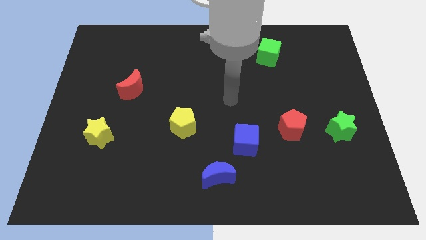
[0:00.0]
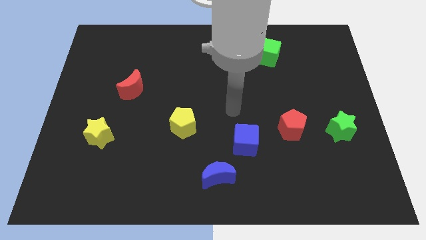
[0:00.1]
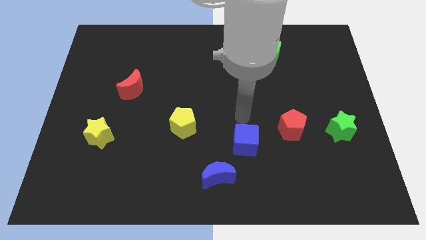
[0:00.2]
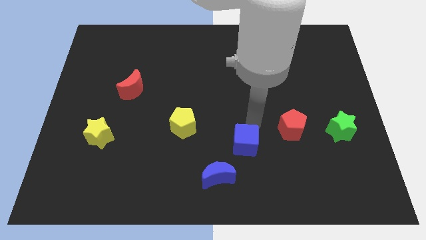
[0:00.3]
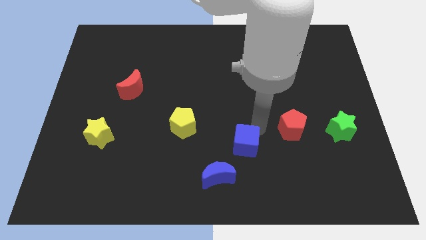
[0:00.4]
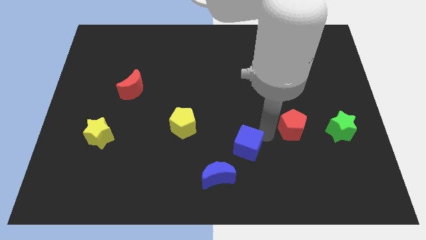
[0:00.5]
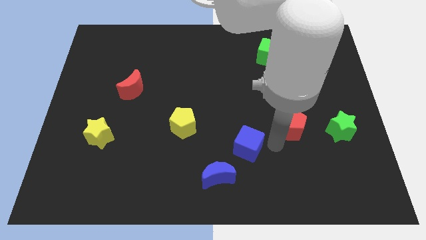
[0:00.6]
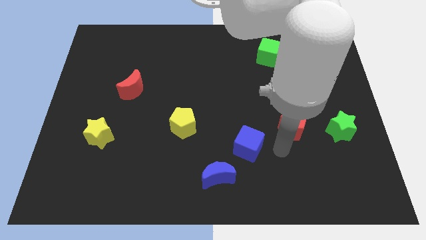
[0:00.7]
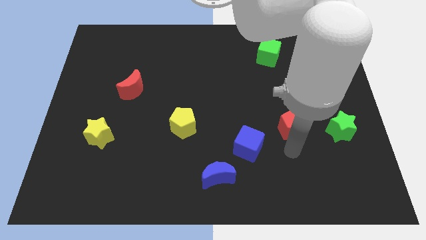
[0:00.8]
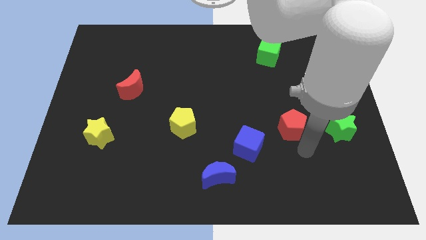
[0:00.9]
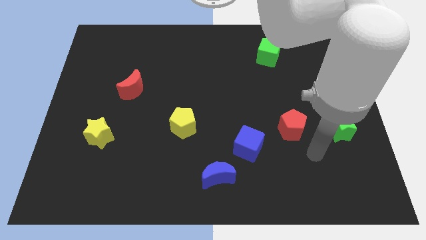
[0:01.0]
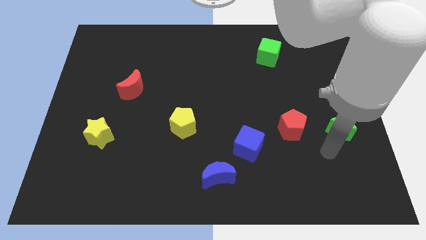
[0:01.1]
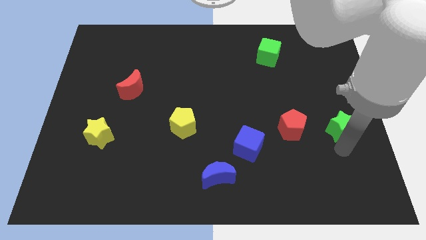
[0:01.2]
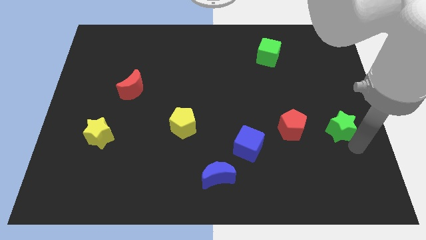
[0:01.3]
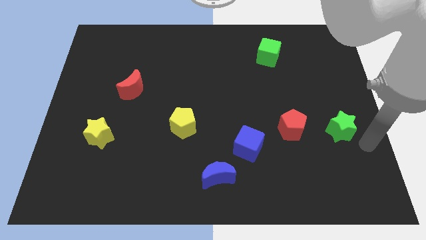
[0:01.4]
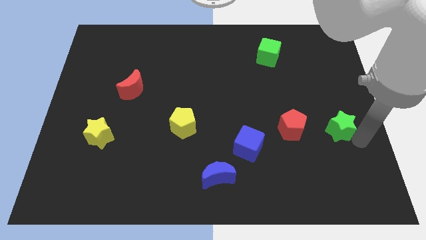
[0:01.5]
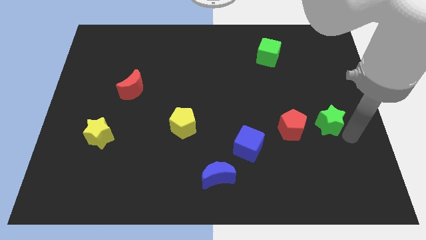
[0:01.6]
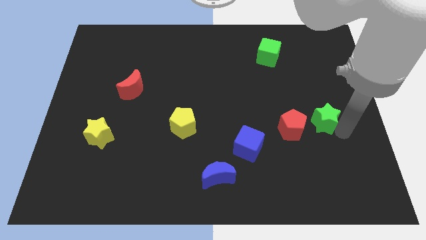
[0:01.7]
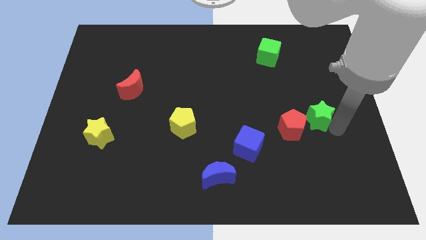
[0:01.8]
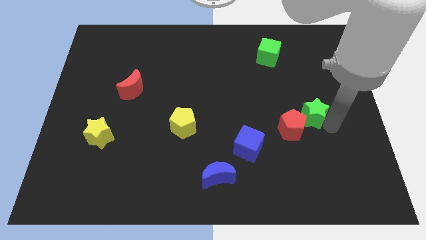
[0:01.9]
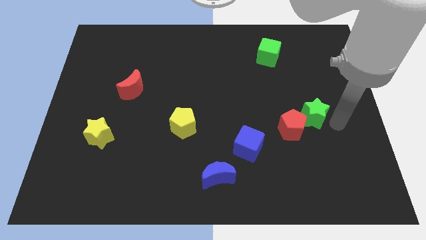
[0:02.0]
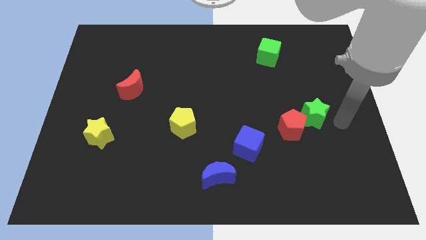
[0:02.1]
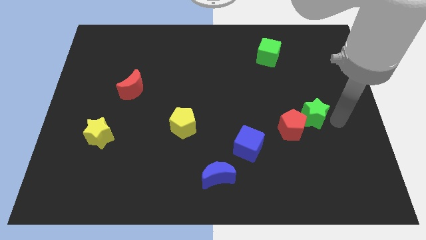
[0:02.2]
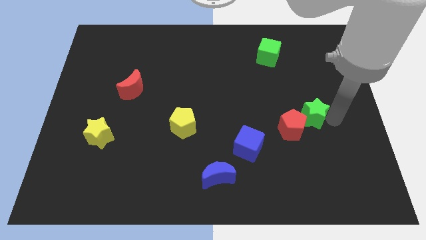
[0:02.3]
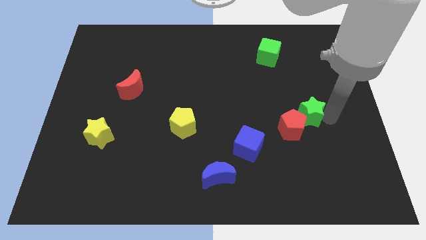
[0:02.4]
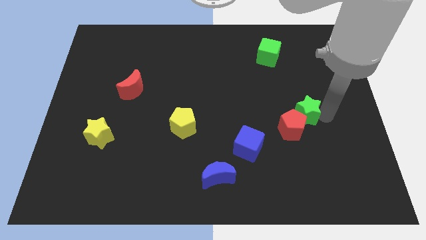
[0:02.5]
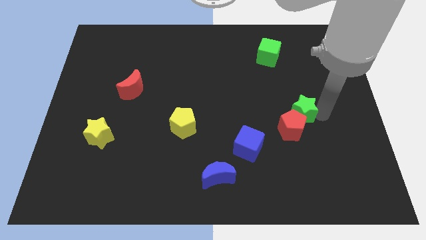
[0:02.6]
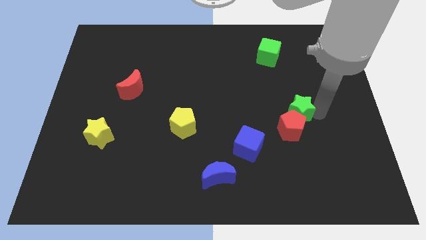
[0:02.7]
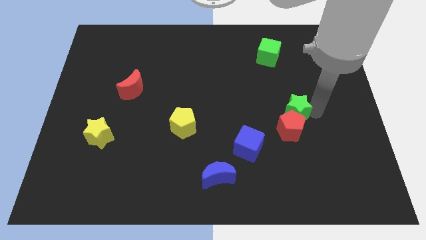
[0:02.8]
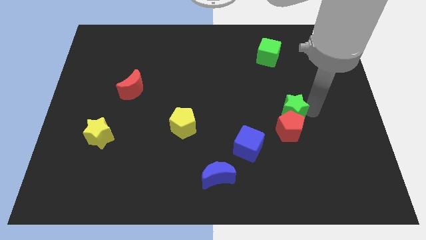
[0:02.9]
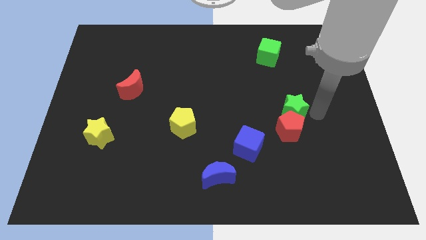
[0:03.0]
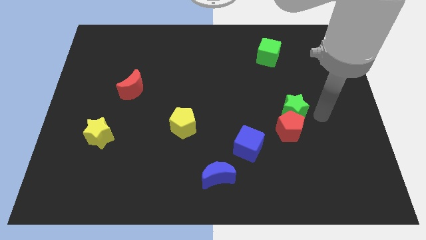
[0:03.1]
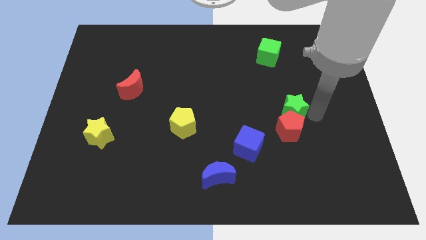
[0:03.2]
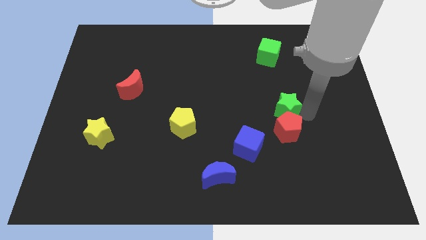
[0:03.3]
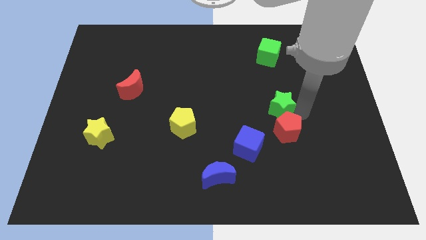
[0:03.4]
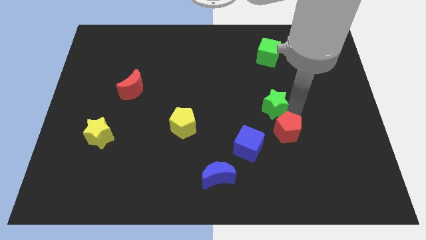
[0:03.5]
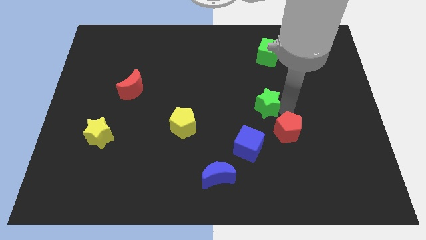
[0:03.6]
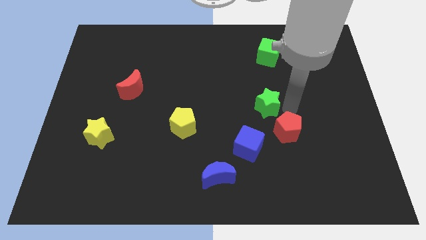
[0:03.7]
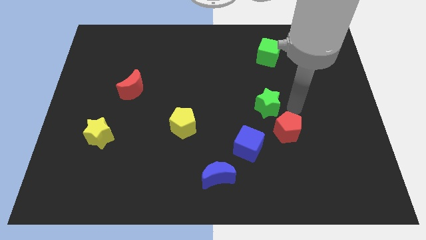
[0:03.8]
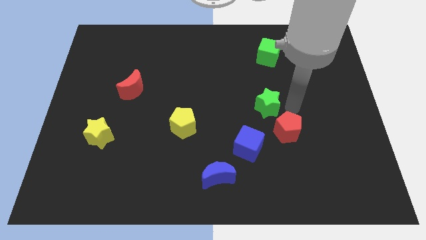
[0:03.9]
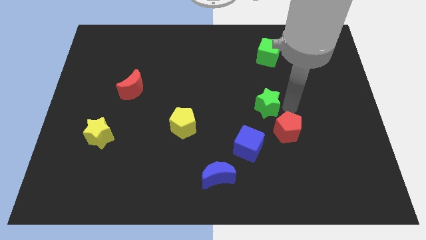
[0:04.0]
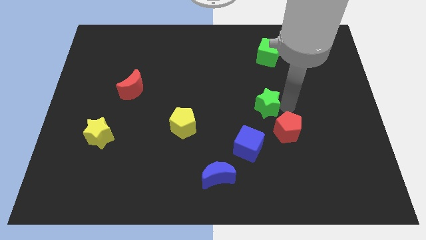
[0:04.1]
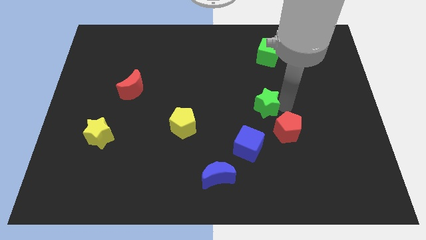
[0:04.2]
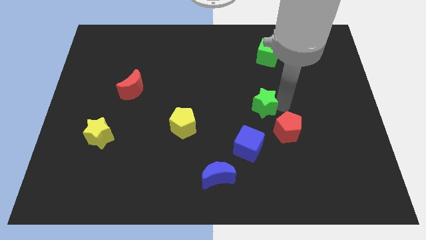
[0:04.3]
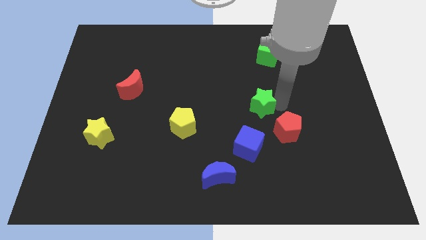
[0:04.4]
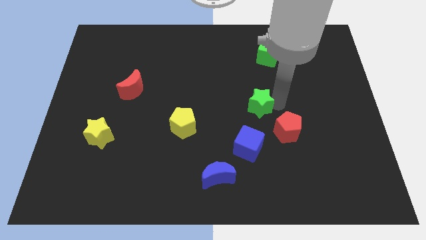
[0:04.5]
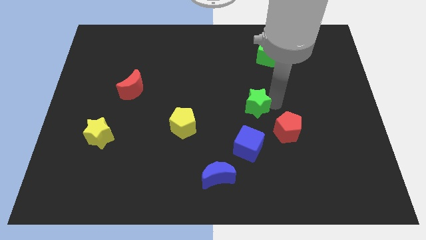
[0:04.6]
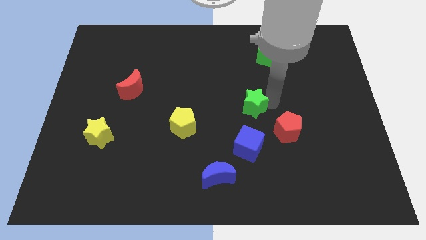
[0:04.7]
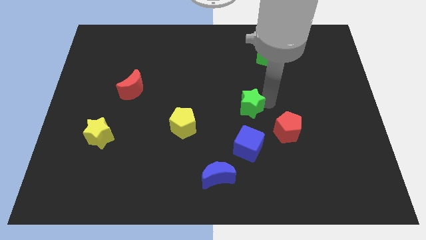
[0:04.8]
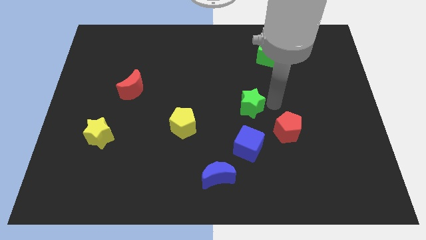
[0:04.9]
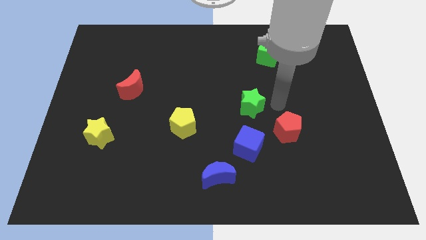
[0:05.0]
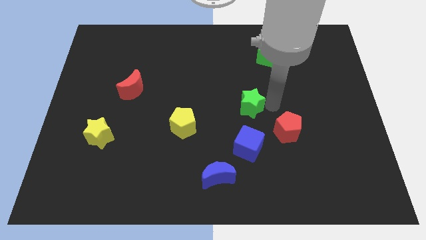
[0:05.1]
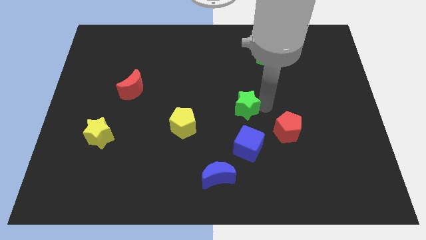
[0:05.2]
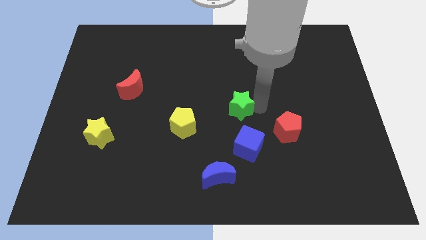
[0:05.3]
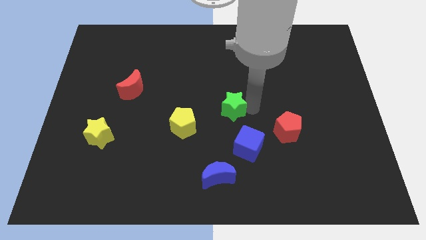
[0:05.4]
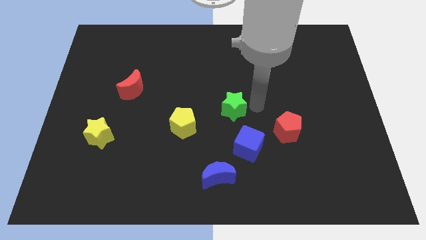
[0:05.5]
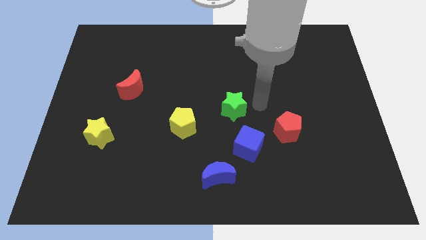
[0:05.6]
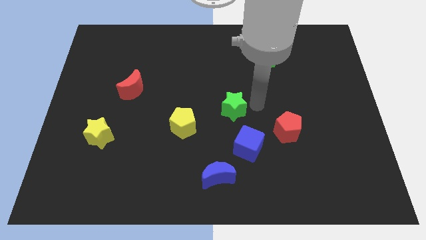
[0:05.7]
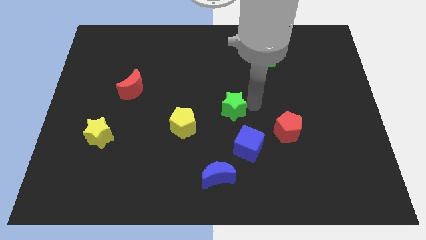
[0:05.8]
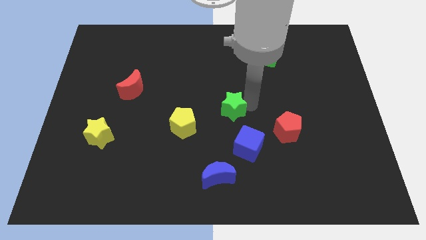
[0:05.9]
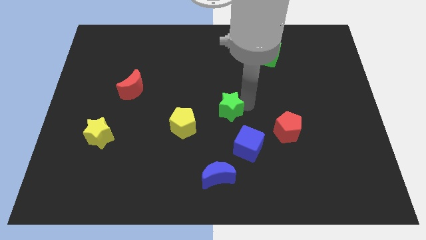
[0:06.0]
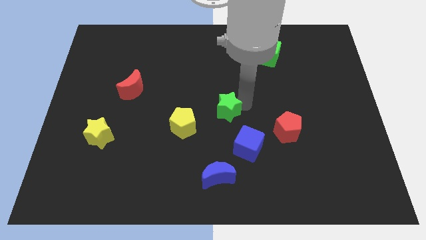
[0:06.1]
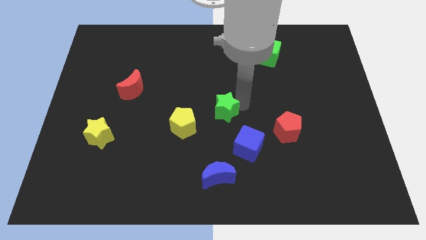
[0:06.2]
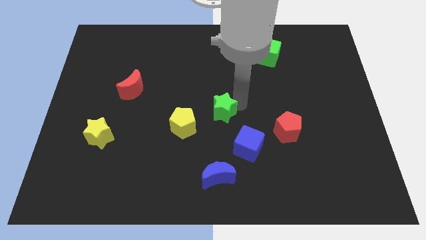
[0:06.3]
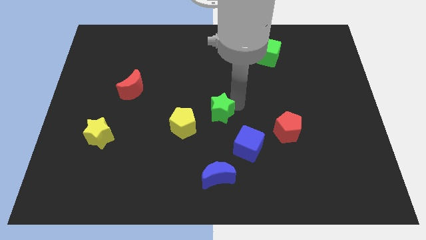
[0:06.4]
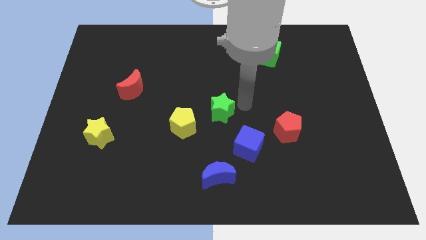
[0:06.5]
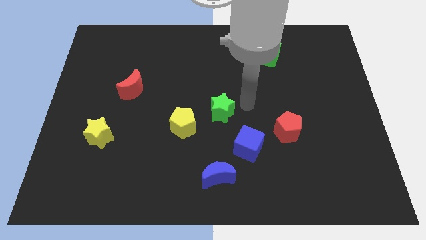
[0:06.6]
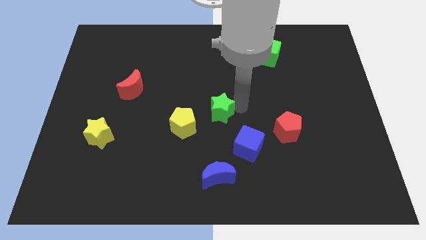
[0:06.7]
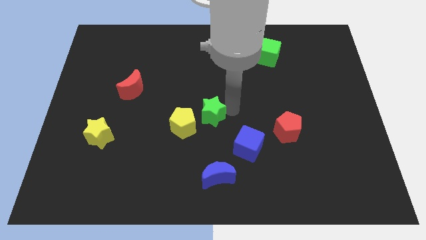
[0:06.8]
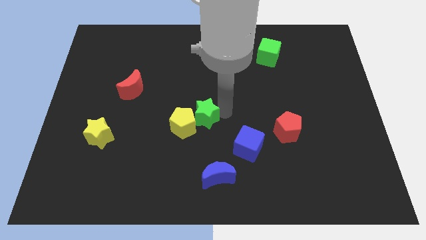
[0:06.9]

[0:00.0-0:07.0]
slide the green star to the yellow pentagon

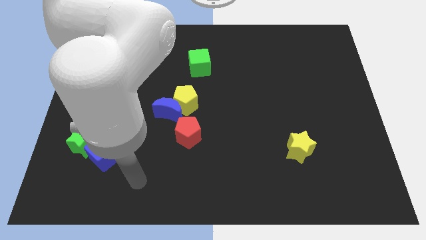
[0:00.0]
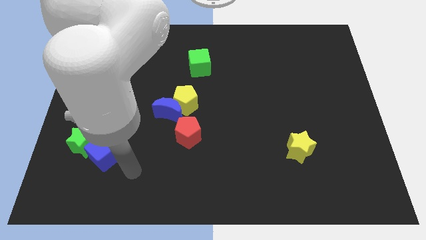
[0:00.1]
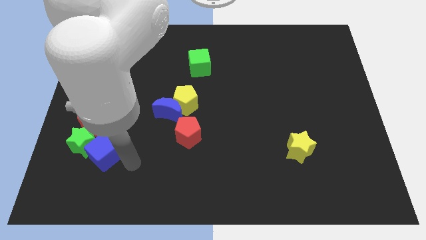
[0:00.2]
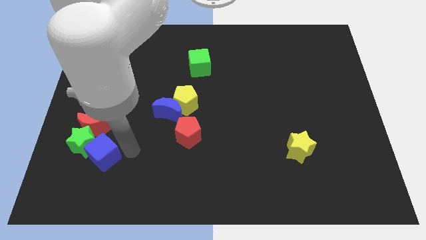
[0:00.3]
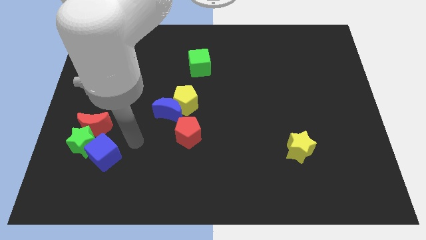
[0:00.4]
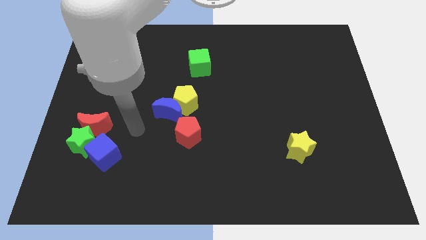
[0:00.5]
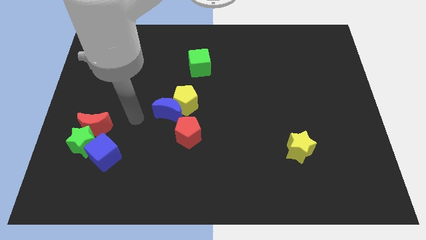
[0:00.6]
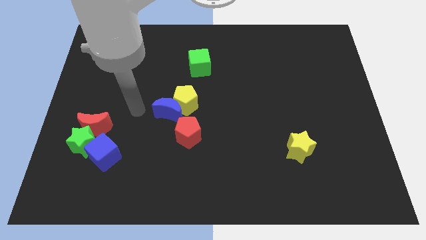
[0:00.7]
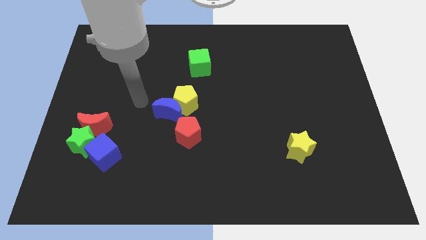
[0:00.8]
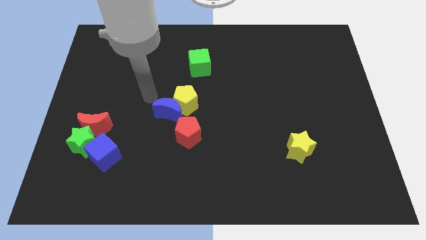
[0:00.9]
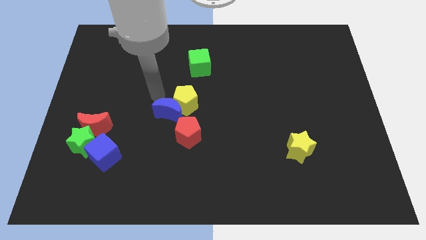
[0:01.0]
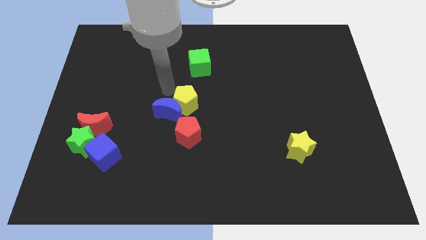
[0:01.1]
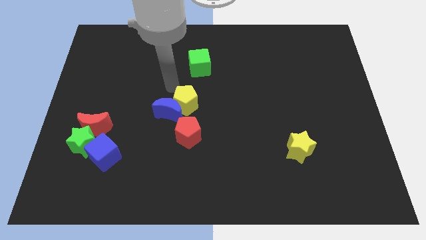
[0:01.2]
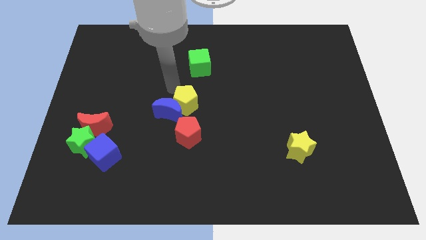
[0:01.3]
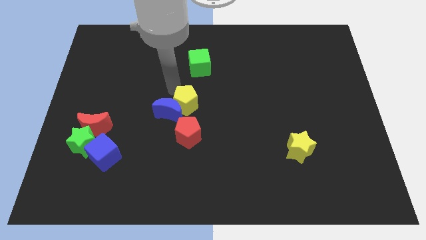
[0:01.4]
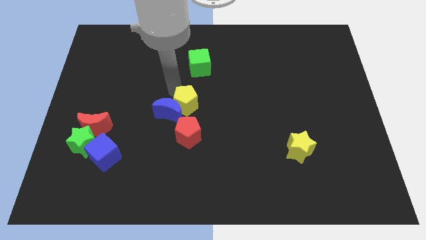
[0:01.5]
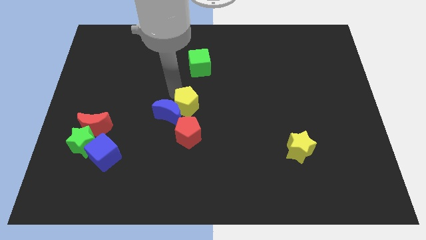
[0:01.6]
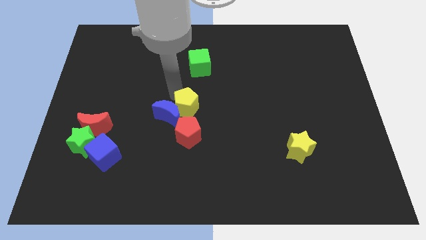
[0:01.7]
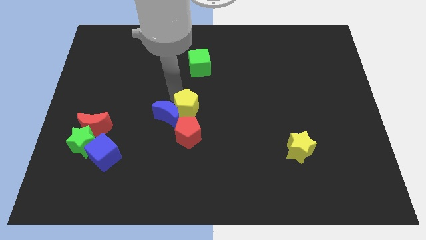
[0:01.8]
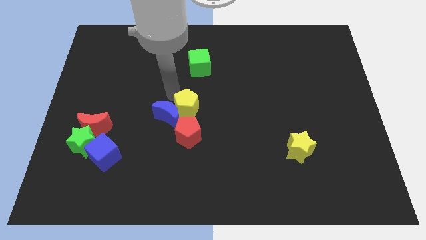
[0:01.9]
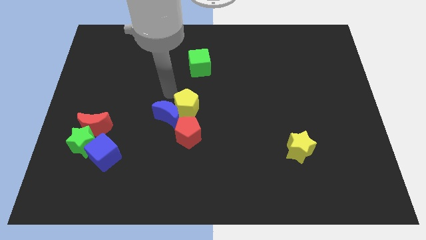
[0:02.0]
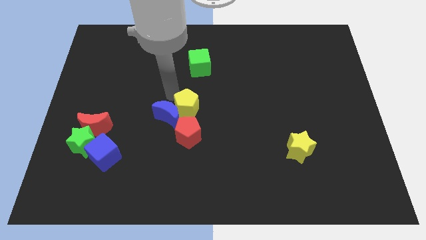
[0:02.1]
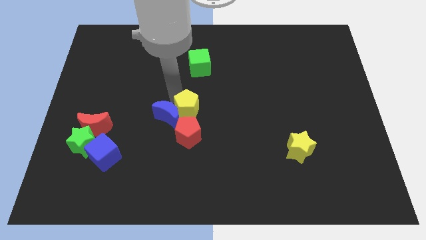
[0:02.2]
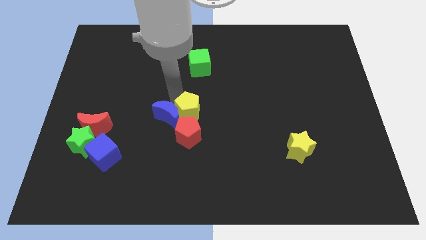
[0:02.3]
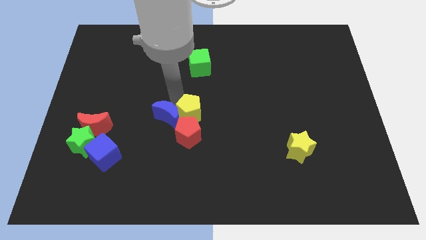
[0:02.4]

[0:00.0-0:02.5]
move the yellow pentagon close to the red pentagon
